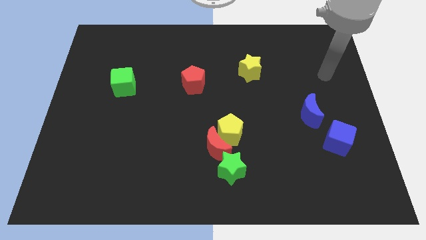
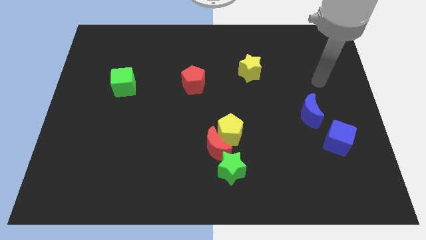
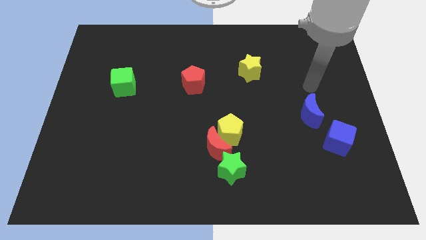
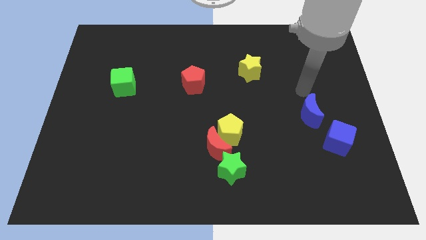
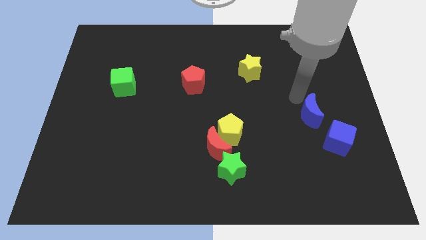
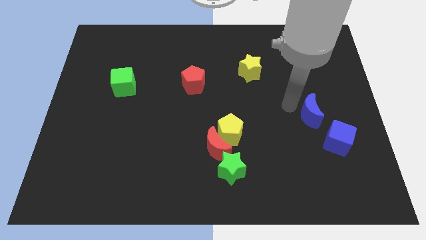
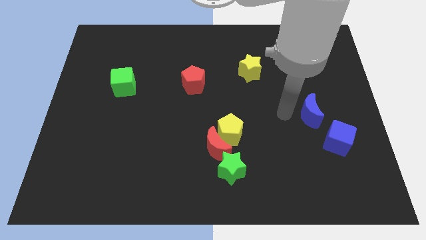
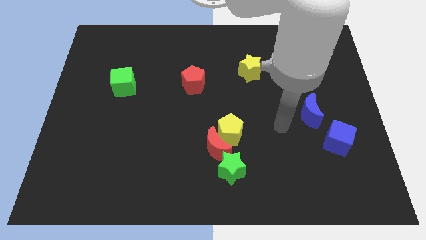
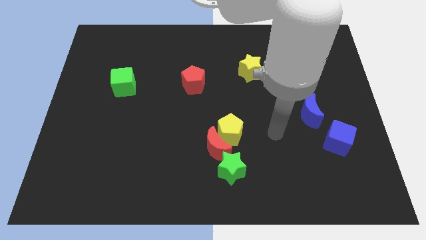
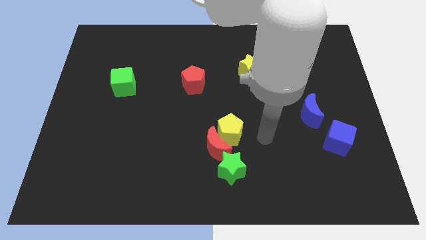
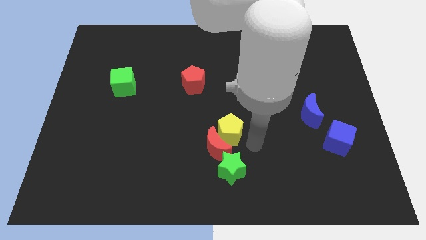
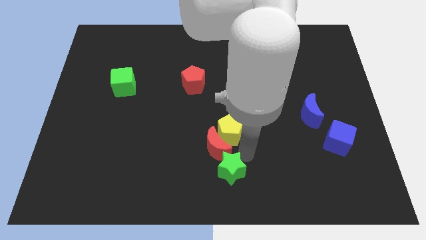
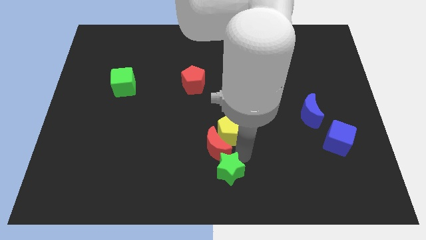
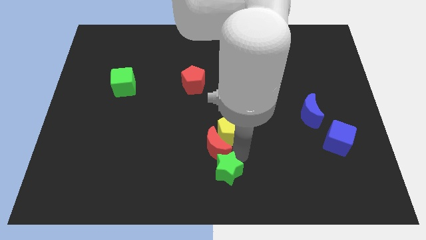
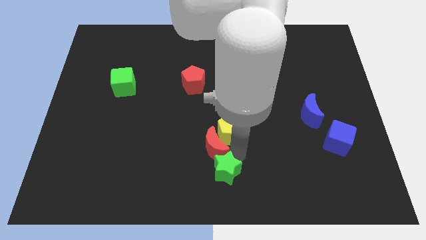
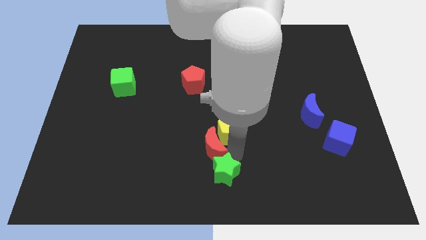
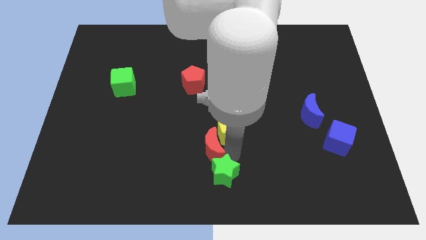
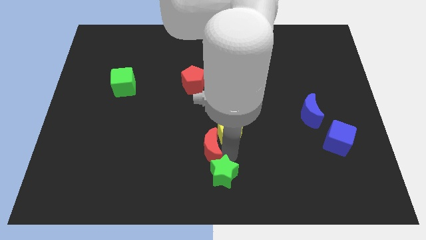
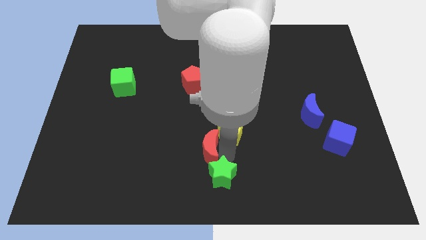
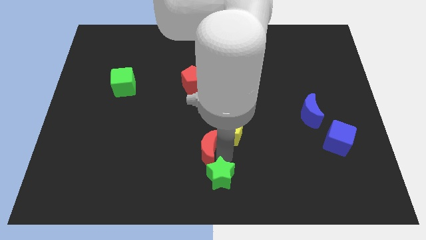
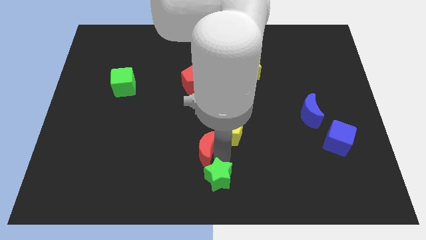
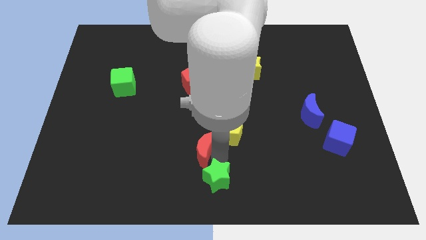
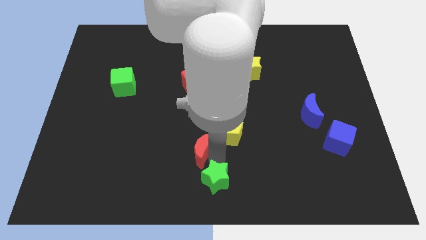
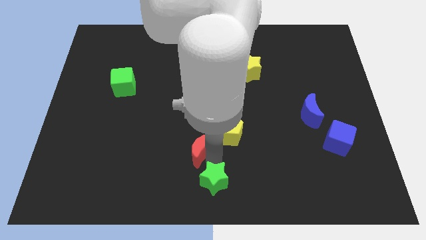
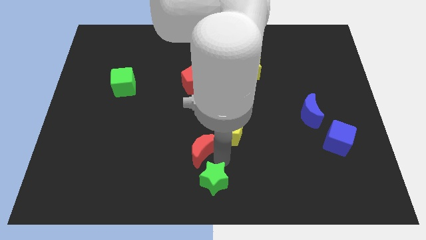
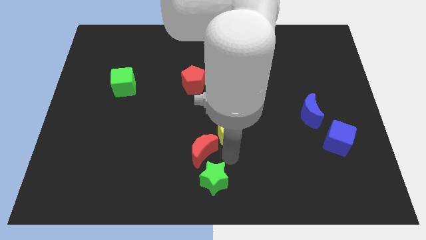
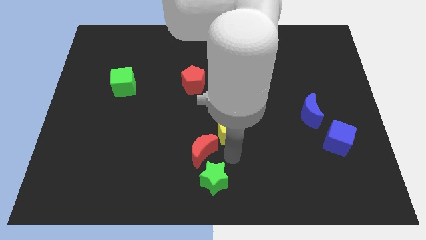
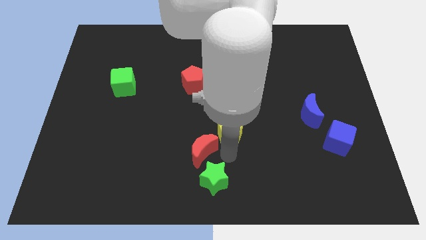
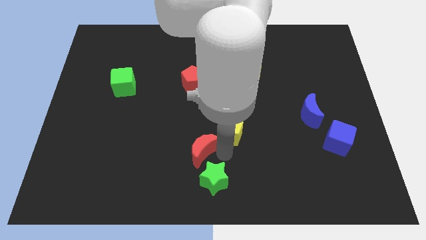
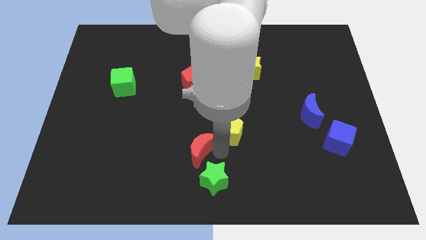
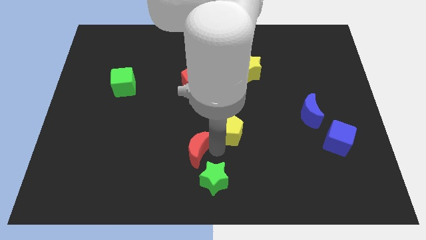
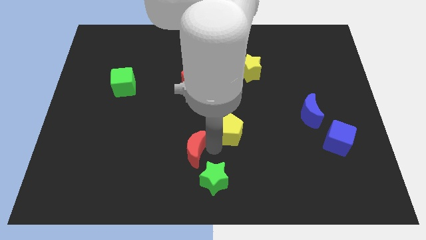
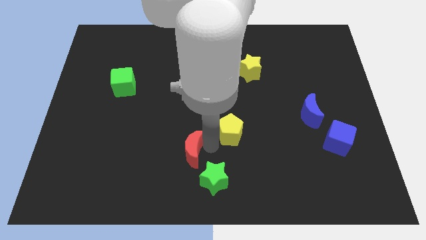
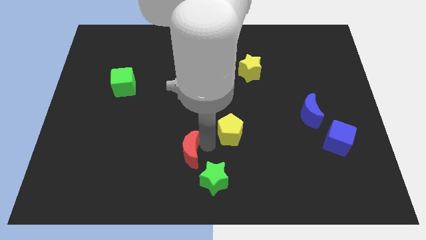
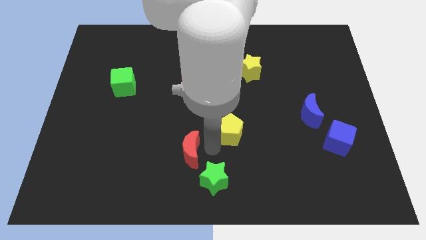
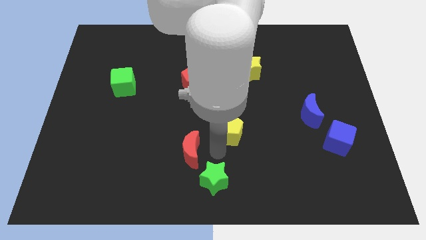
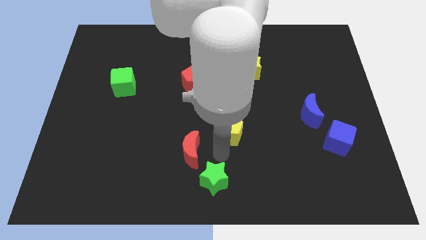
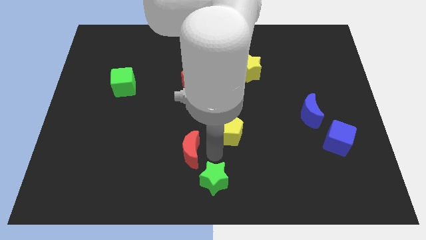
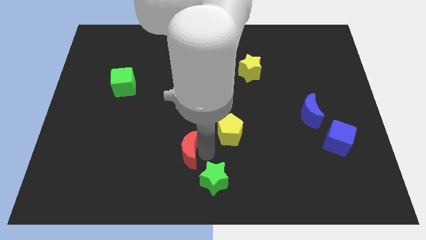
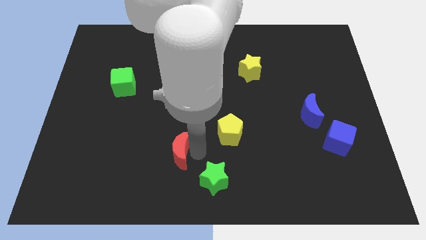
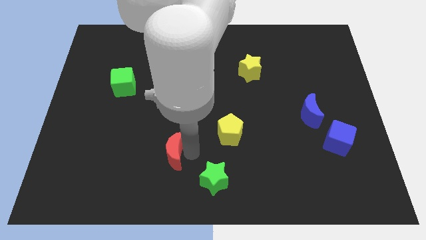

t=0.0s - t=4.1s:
pull the red moon apart from the yellow pentagon and green star

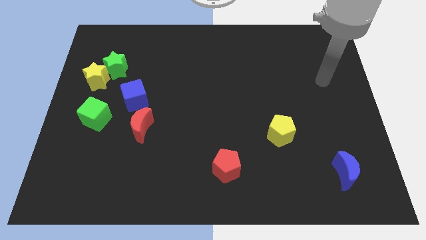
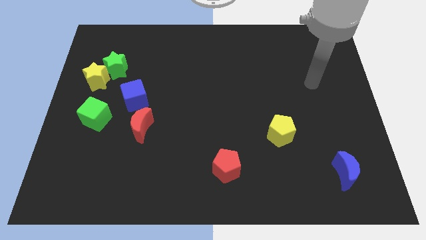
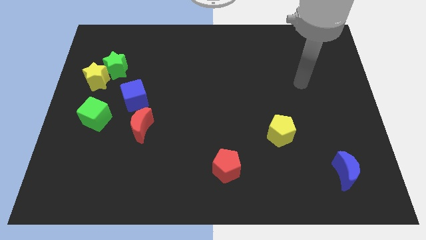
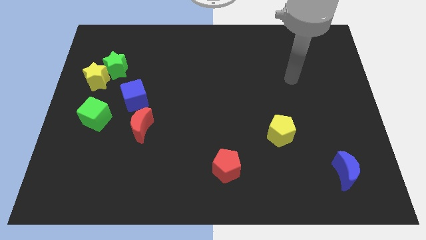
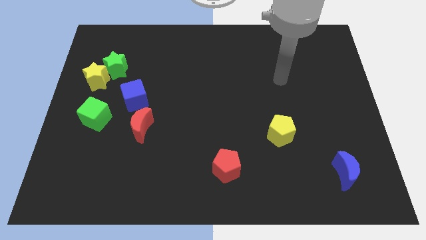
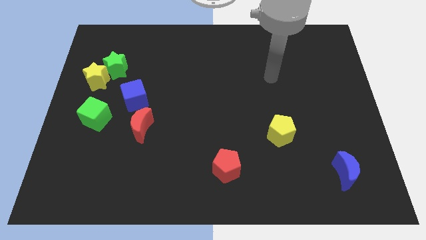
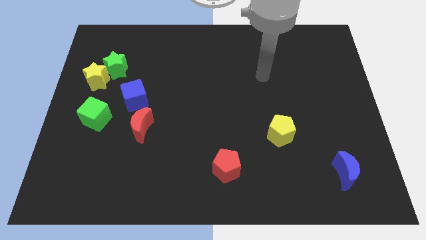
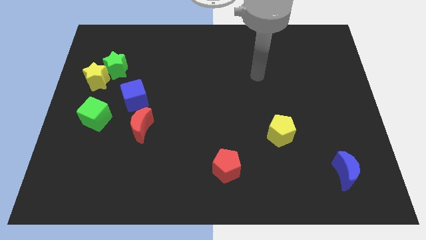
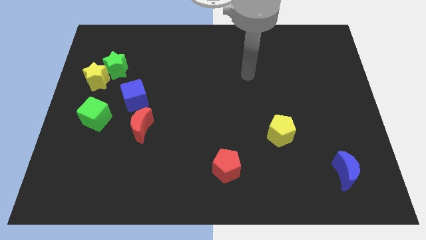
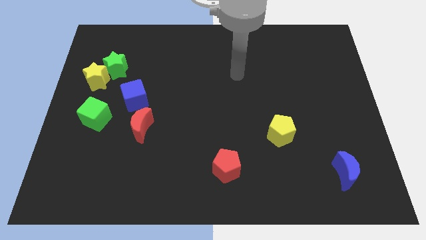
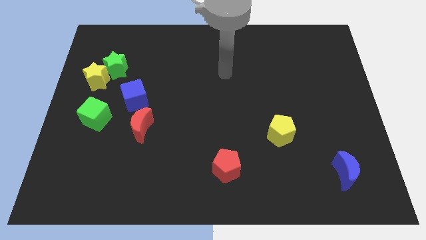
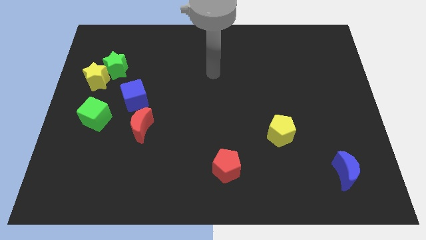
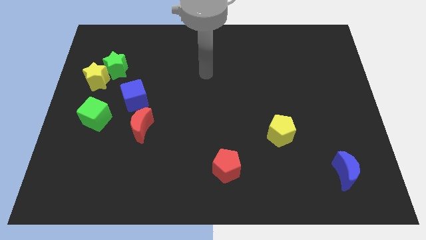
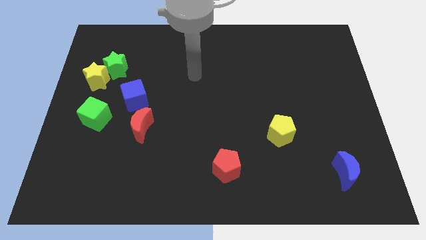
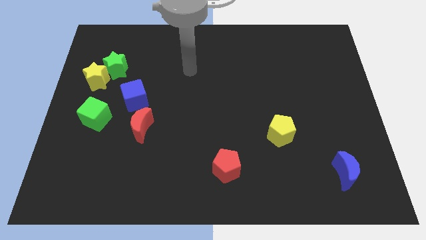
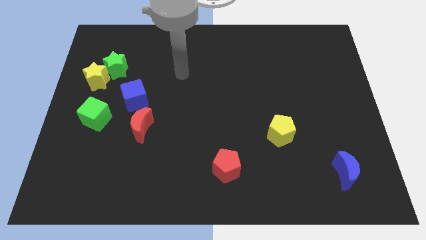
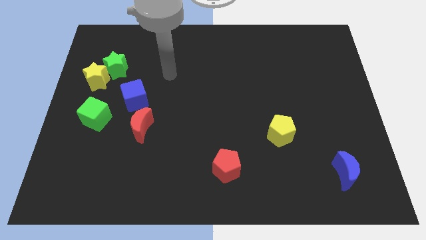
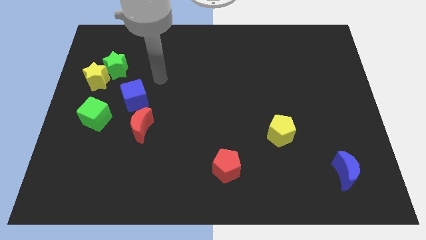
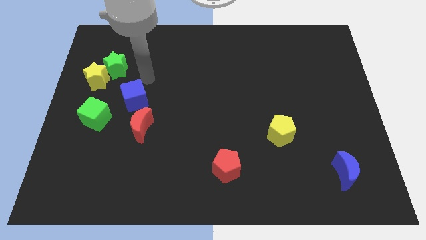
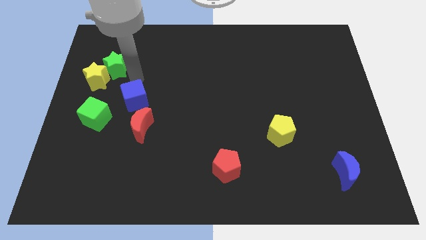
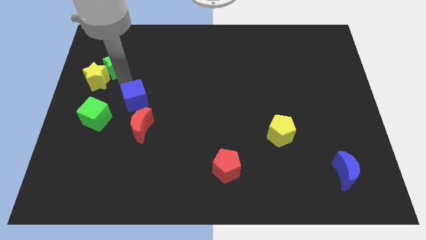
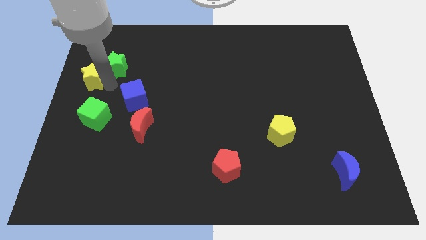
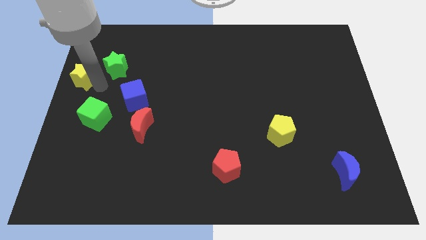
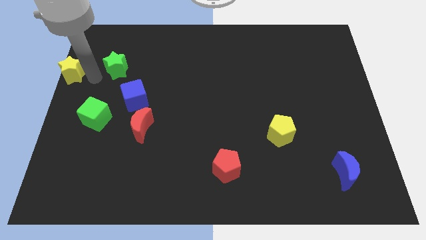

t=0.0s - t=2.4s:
separate the green star from the yellow star

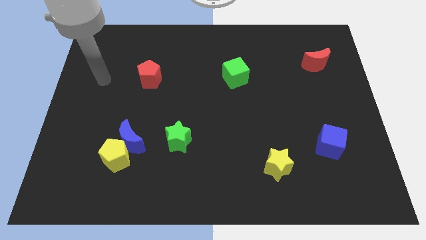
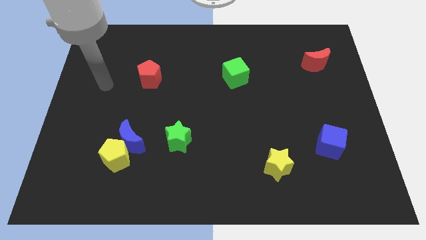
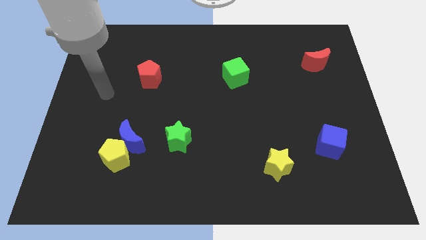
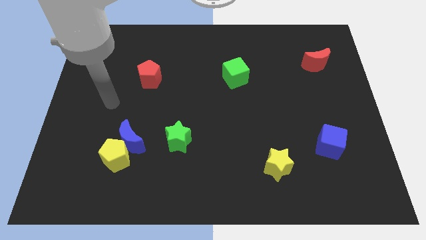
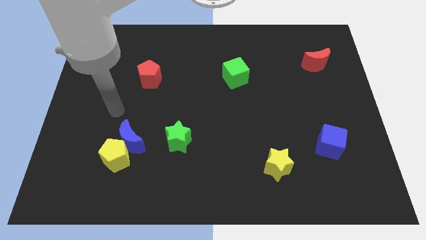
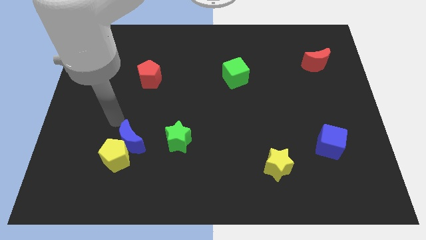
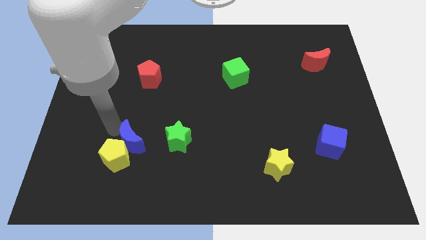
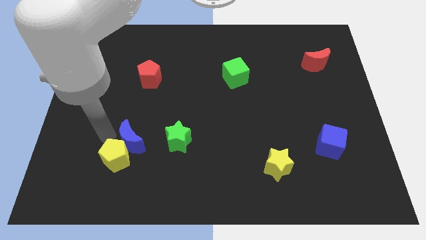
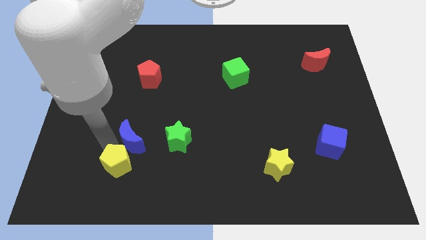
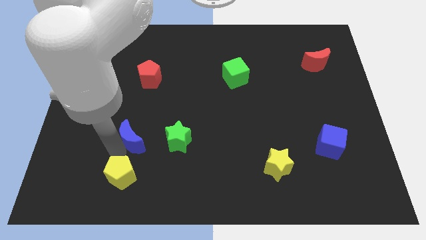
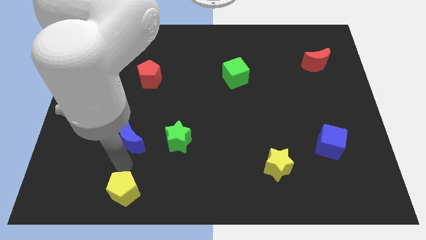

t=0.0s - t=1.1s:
separate the blue moon from the yellow pentagon

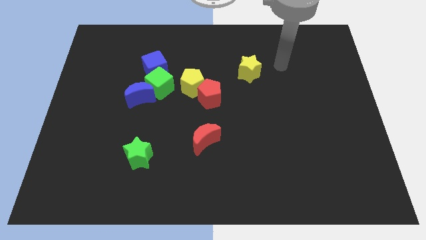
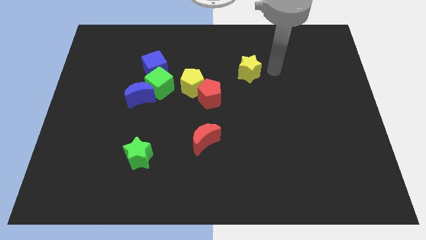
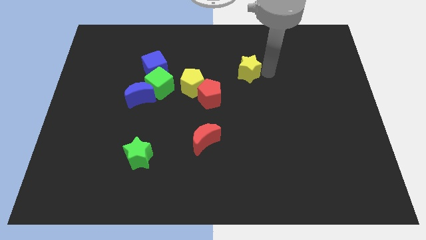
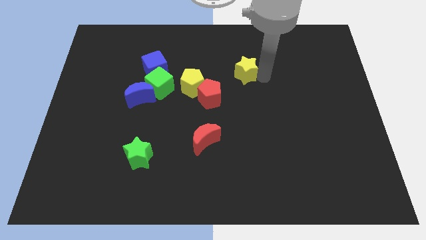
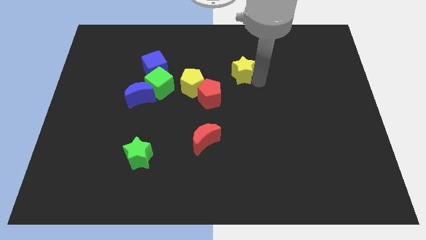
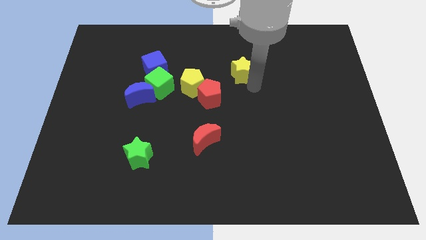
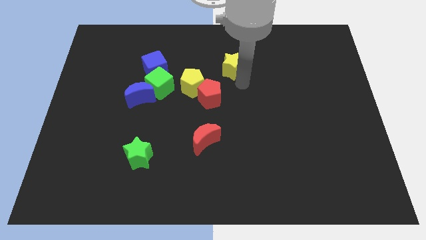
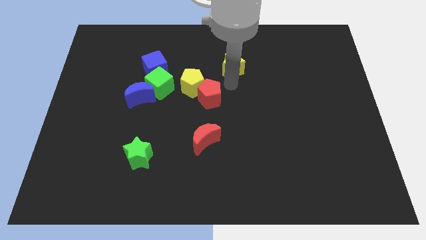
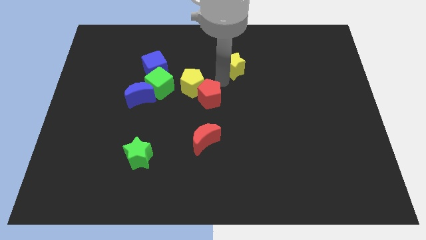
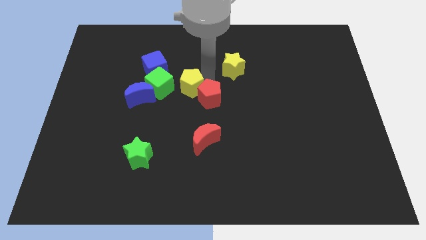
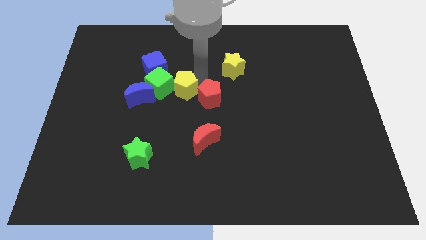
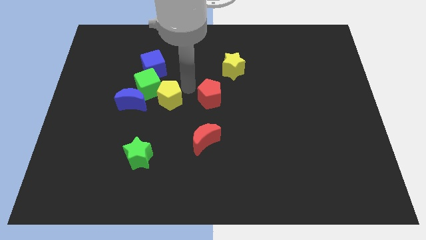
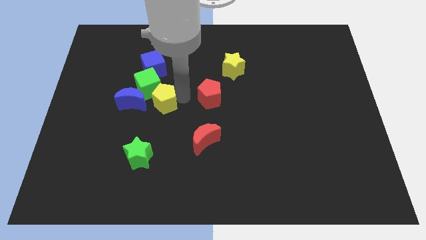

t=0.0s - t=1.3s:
move the red pentagon away from the yellow pentagon

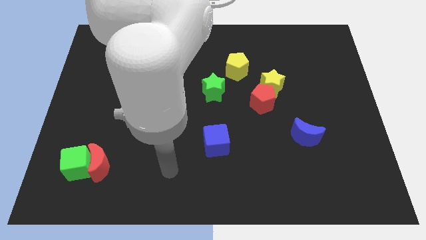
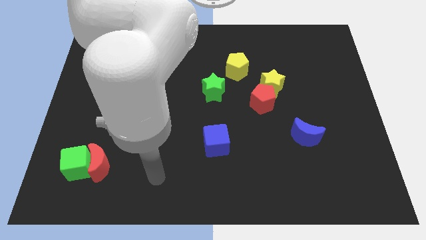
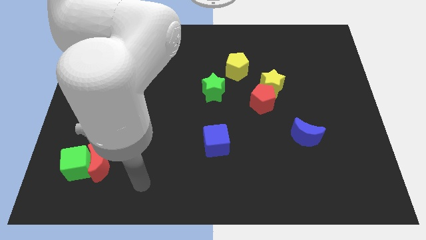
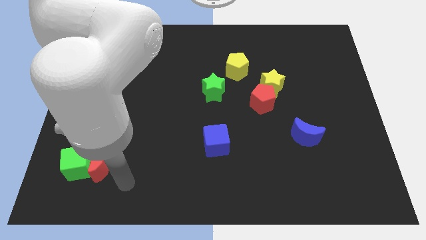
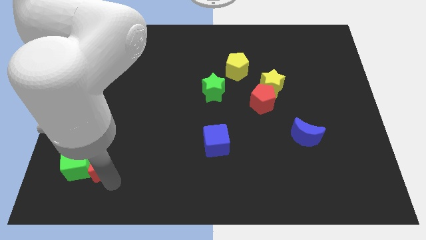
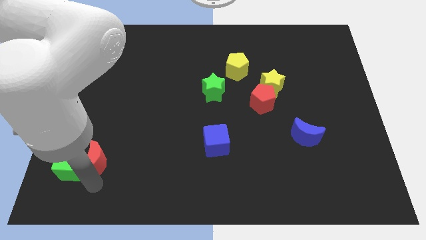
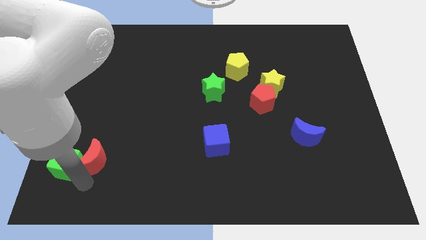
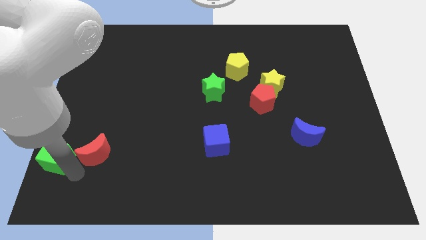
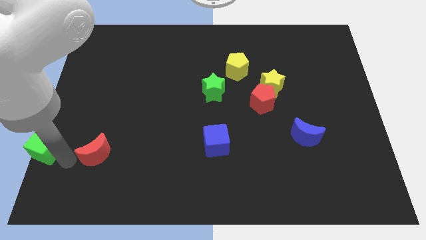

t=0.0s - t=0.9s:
move the red moon away from the green cube
